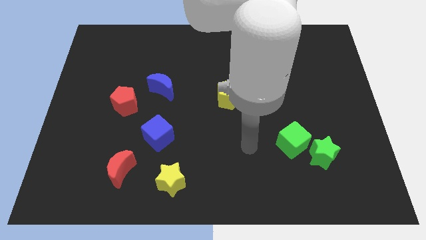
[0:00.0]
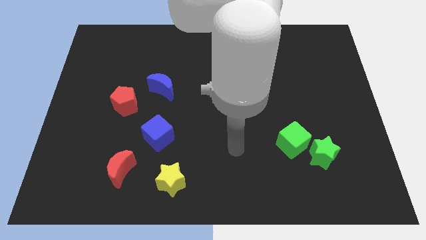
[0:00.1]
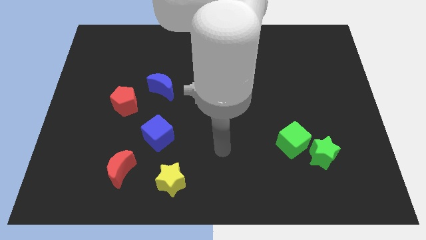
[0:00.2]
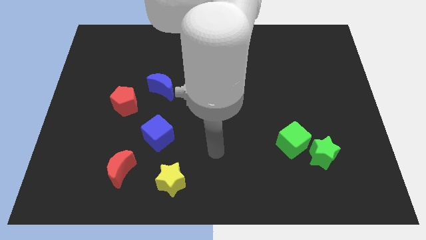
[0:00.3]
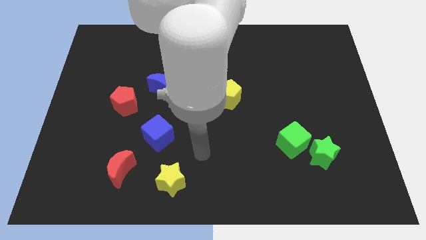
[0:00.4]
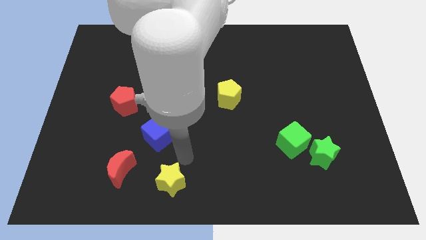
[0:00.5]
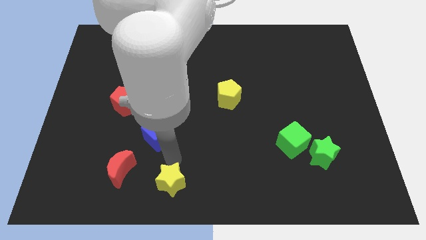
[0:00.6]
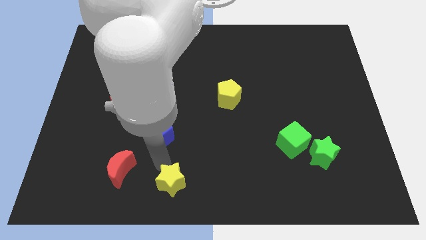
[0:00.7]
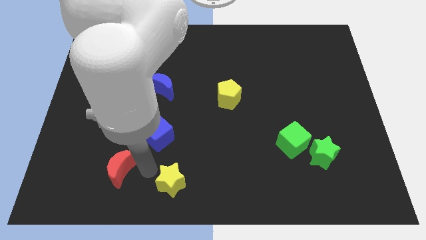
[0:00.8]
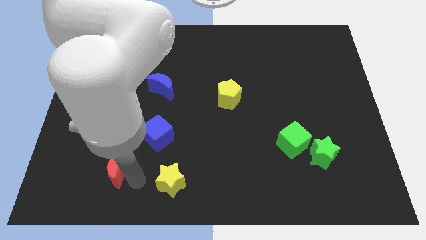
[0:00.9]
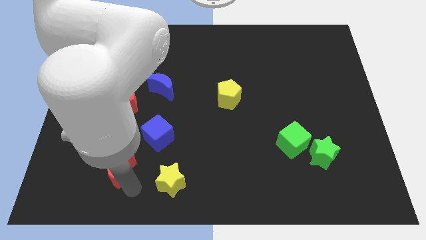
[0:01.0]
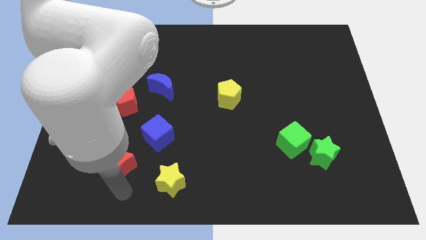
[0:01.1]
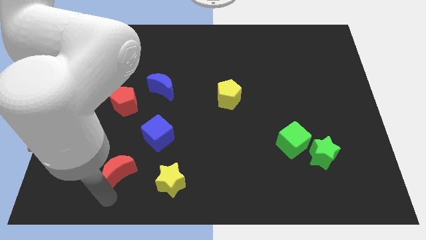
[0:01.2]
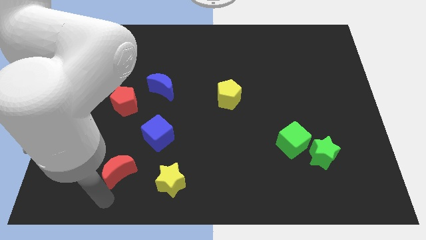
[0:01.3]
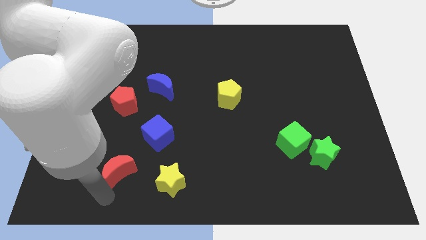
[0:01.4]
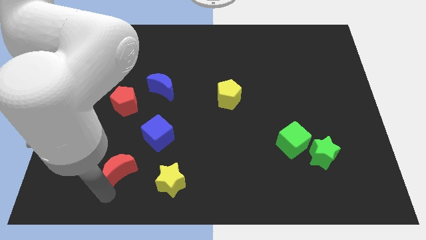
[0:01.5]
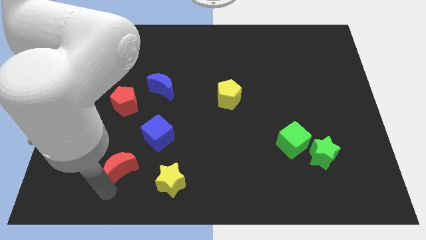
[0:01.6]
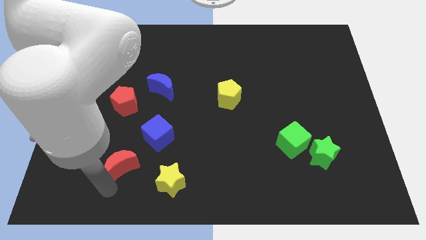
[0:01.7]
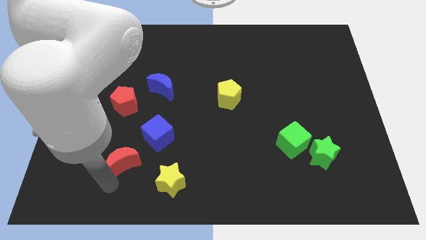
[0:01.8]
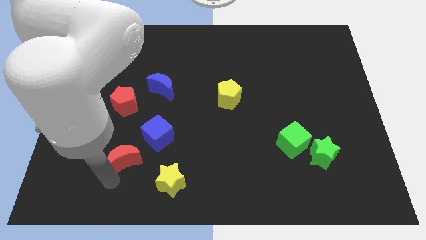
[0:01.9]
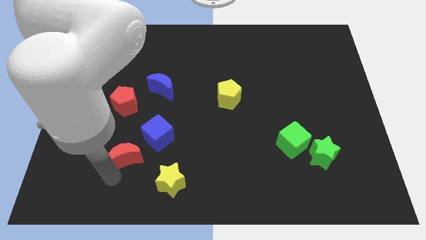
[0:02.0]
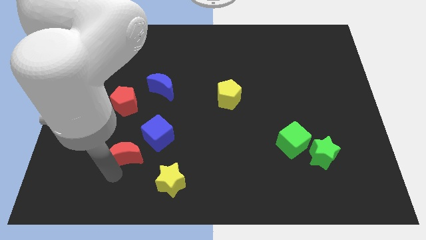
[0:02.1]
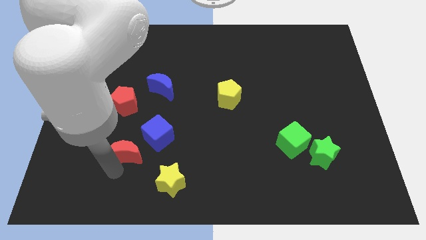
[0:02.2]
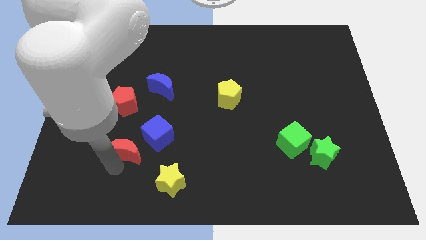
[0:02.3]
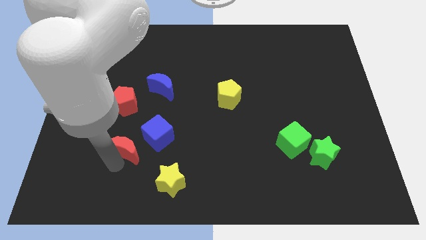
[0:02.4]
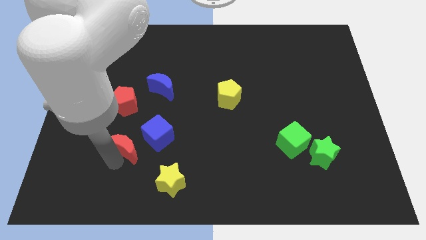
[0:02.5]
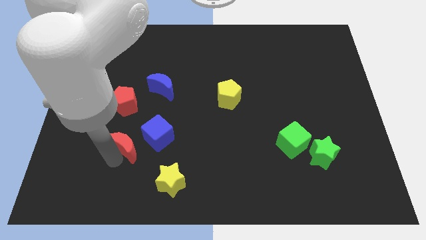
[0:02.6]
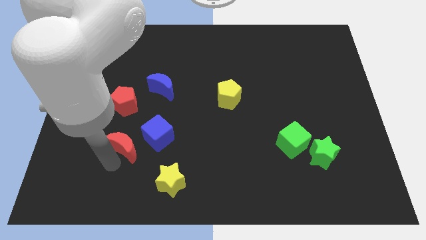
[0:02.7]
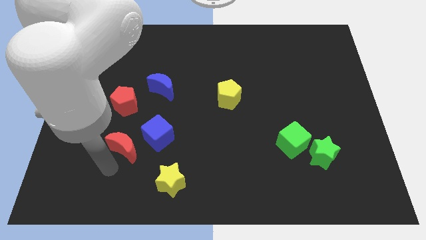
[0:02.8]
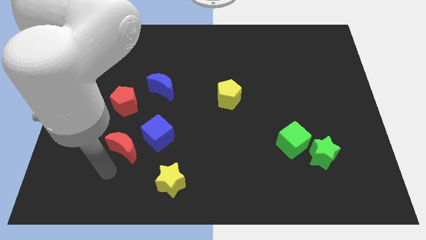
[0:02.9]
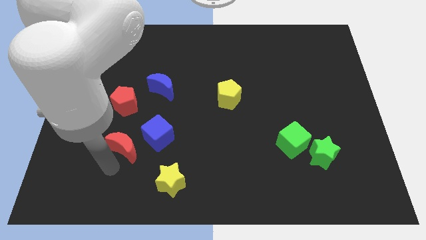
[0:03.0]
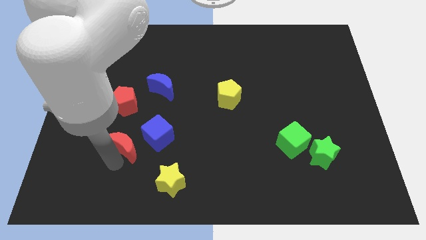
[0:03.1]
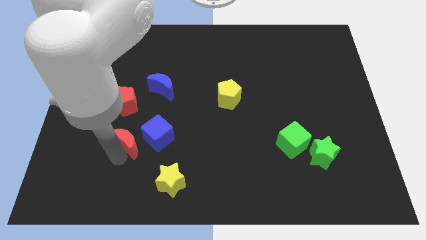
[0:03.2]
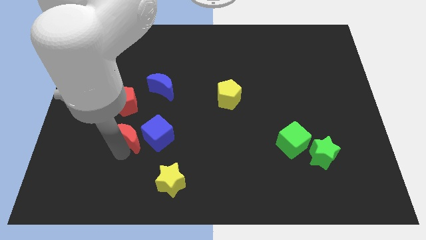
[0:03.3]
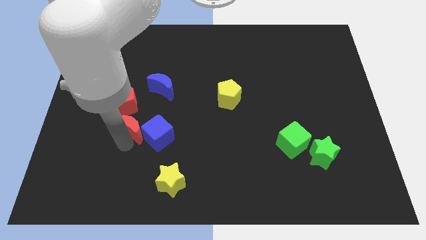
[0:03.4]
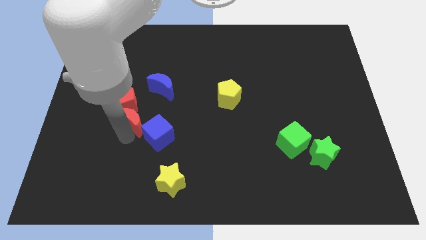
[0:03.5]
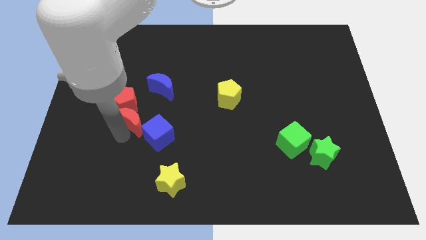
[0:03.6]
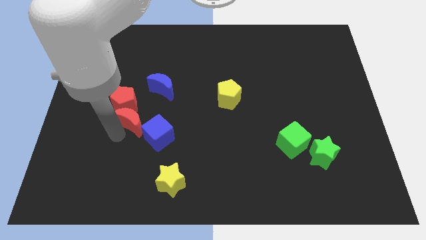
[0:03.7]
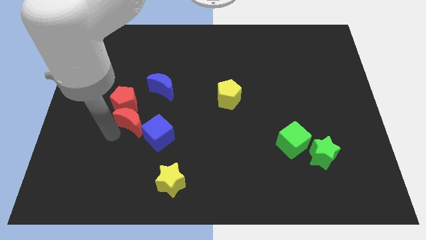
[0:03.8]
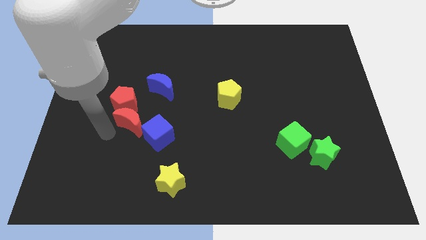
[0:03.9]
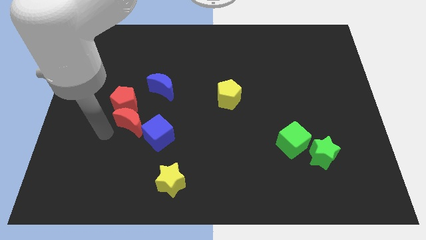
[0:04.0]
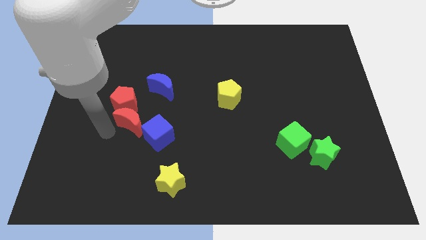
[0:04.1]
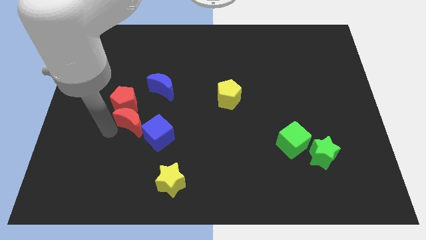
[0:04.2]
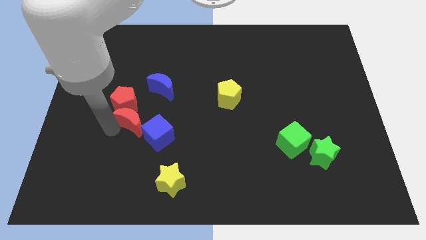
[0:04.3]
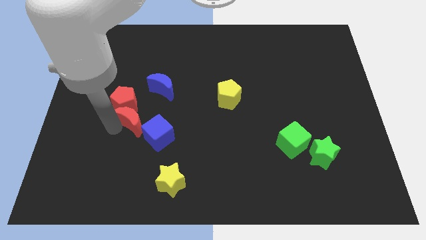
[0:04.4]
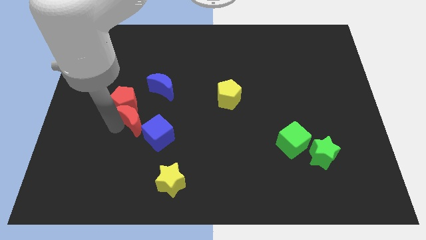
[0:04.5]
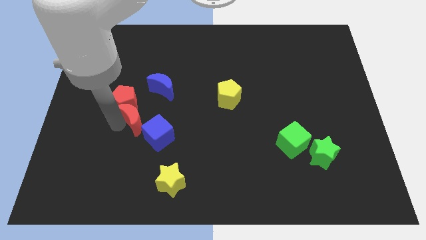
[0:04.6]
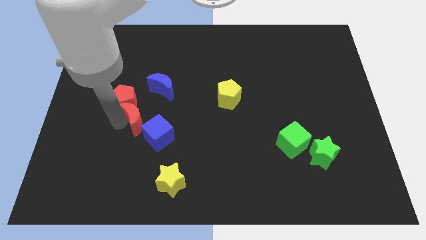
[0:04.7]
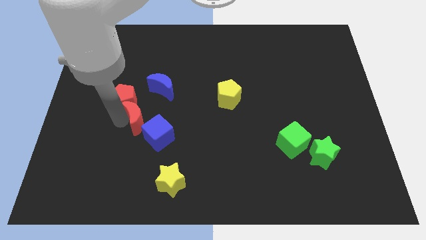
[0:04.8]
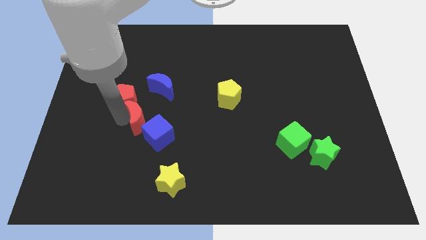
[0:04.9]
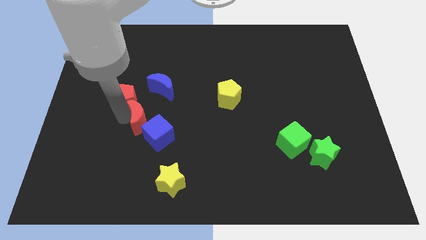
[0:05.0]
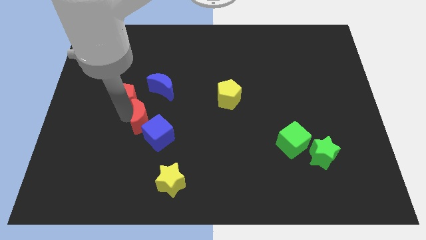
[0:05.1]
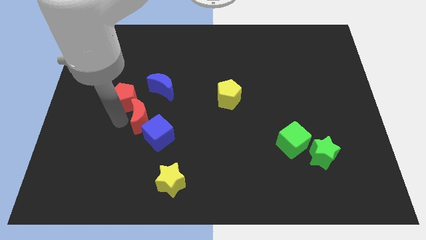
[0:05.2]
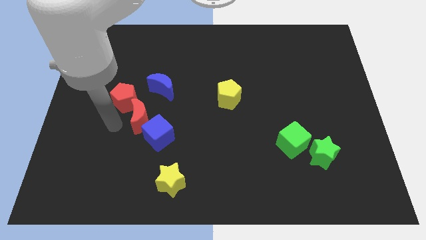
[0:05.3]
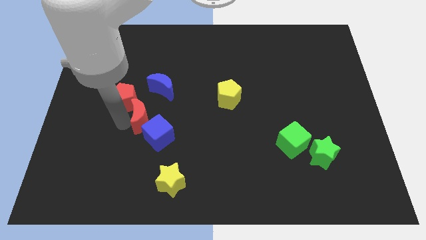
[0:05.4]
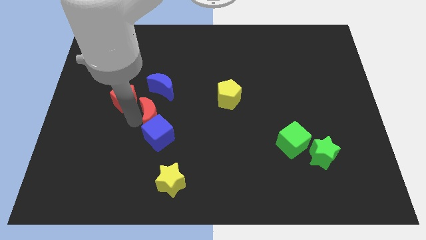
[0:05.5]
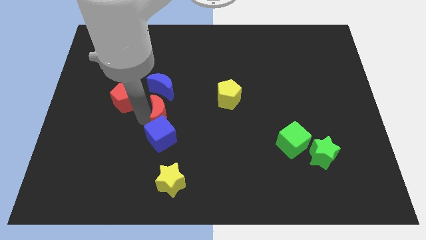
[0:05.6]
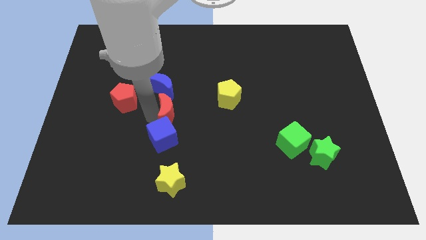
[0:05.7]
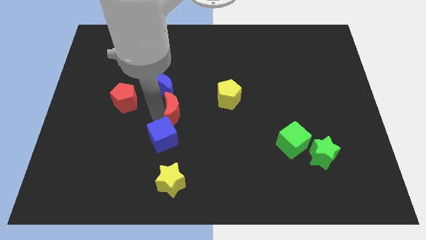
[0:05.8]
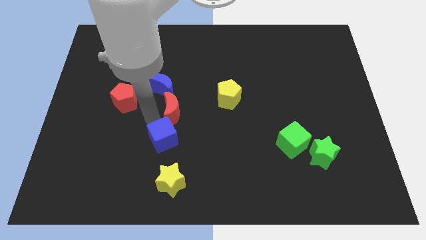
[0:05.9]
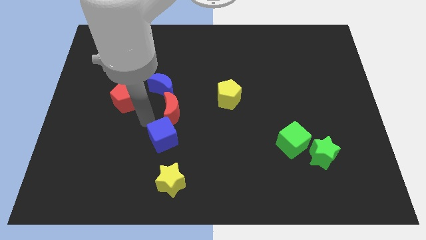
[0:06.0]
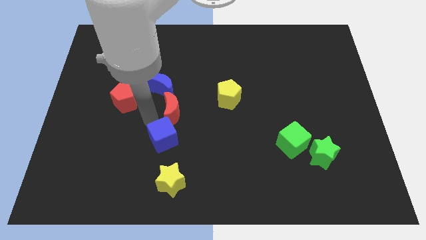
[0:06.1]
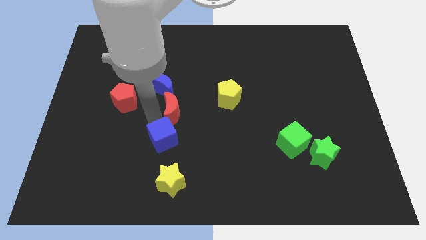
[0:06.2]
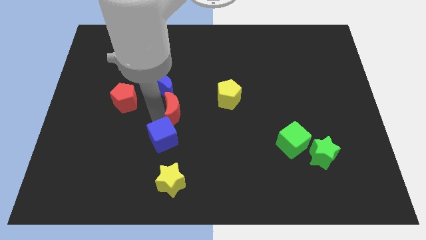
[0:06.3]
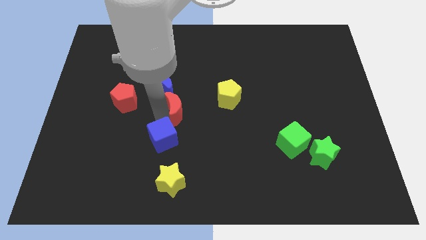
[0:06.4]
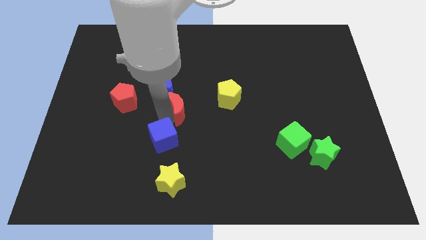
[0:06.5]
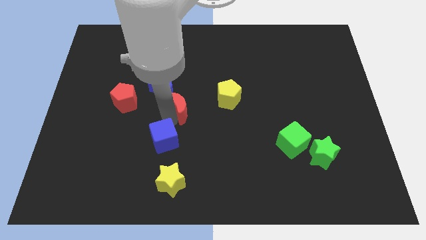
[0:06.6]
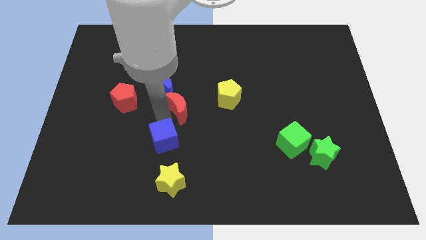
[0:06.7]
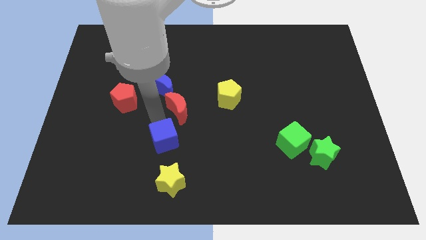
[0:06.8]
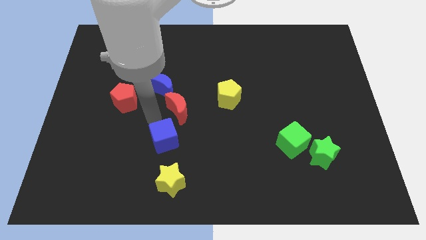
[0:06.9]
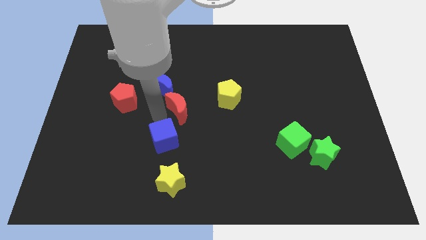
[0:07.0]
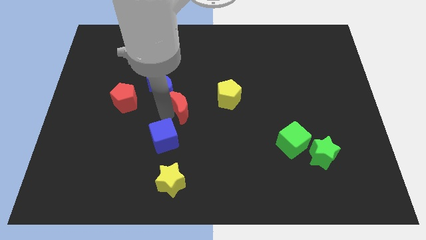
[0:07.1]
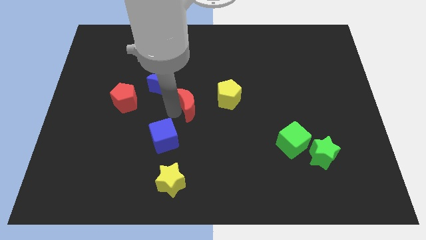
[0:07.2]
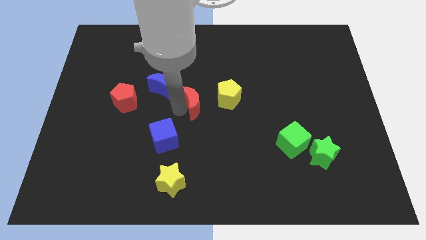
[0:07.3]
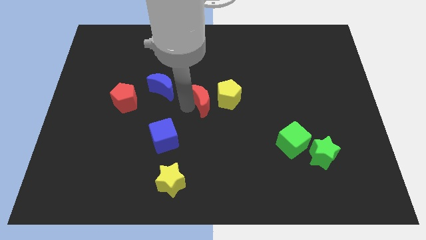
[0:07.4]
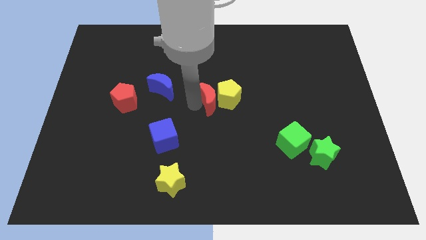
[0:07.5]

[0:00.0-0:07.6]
push the red moon to the yellow pentagon
